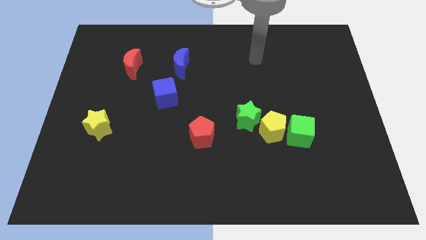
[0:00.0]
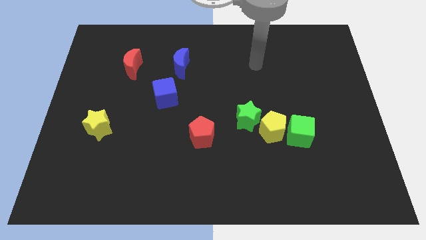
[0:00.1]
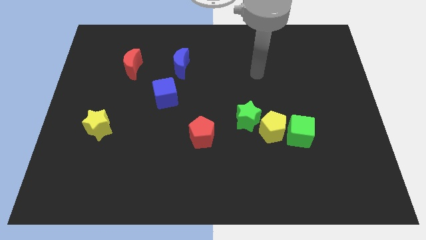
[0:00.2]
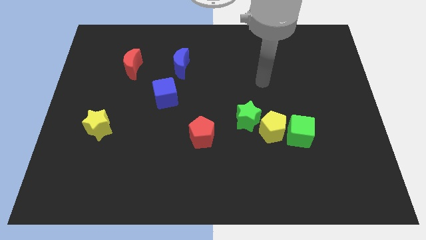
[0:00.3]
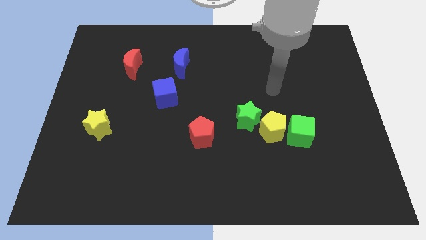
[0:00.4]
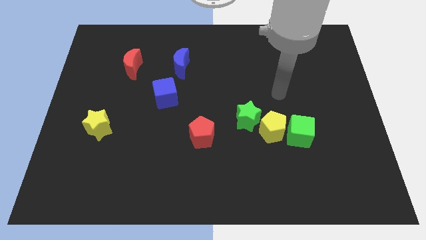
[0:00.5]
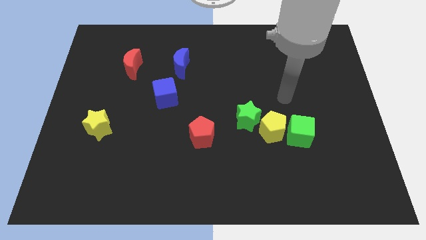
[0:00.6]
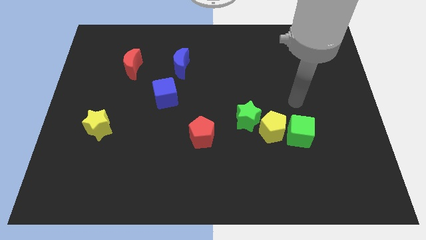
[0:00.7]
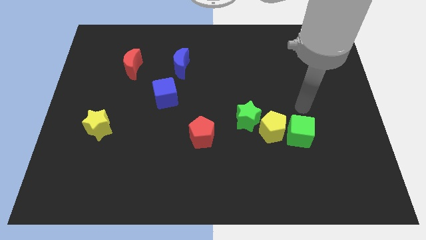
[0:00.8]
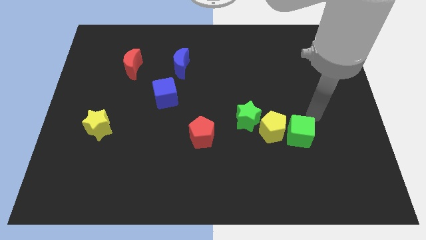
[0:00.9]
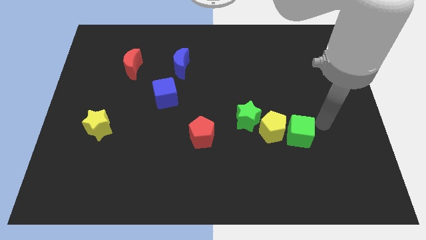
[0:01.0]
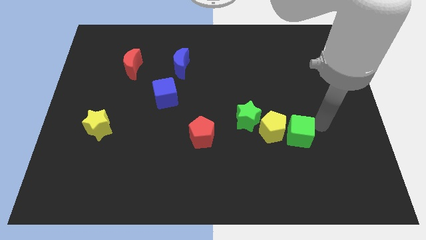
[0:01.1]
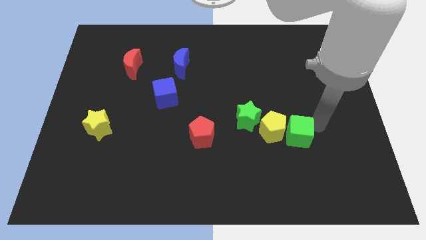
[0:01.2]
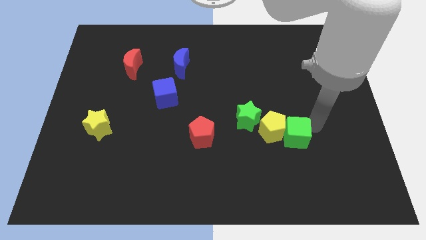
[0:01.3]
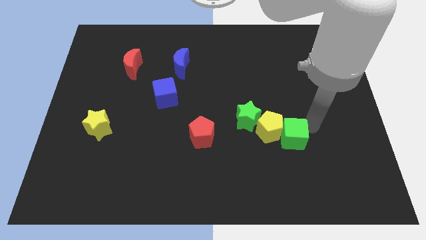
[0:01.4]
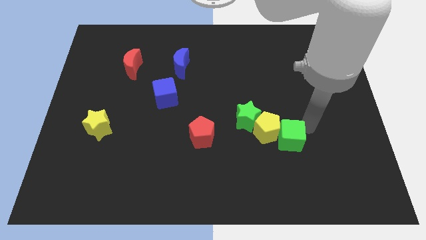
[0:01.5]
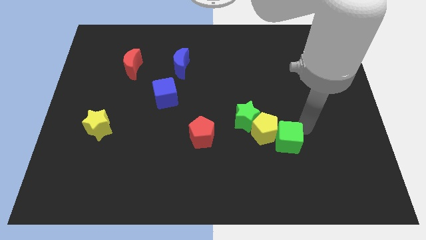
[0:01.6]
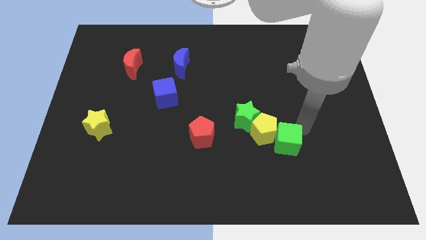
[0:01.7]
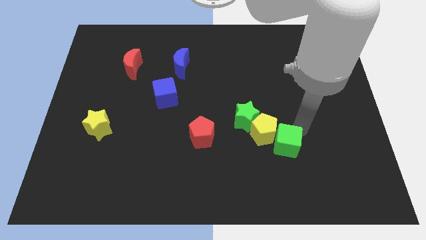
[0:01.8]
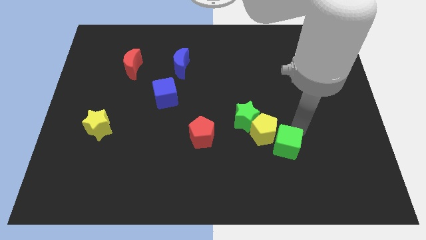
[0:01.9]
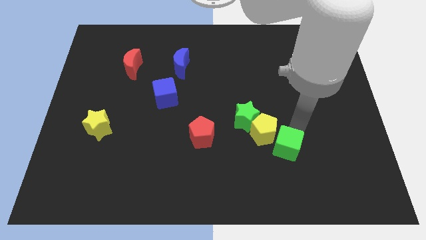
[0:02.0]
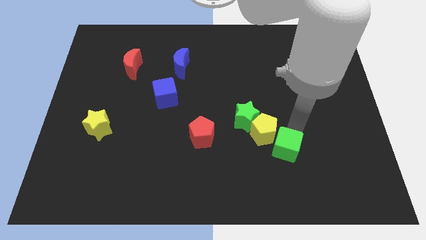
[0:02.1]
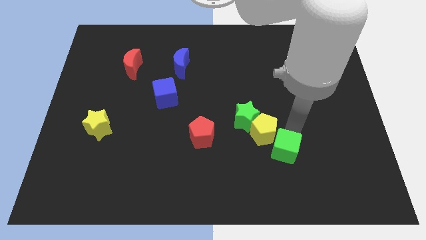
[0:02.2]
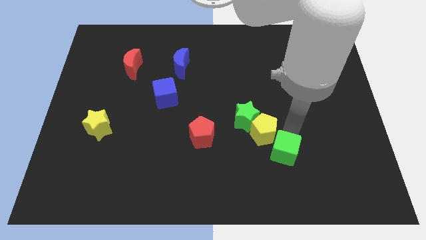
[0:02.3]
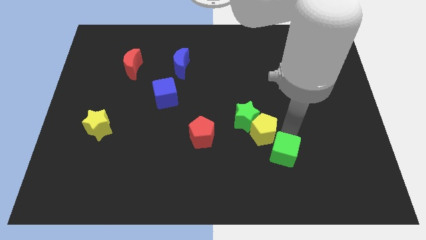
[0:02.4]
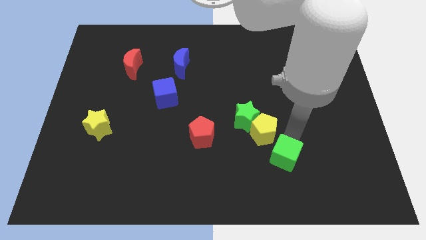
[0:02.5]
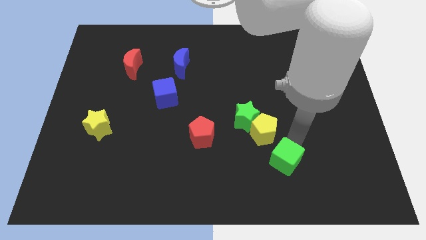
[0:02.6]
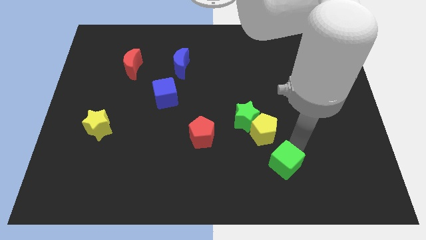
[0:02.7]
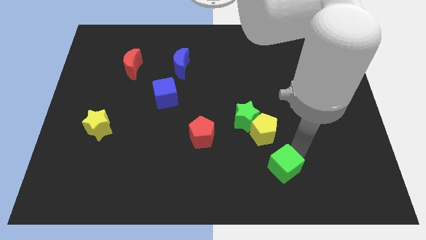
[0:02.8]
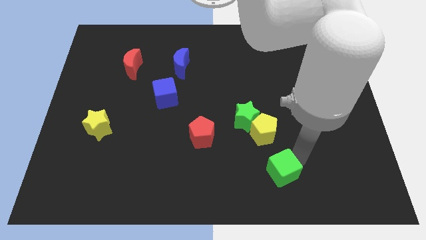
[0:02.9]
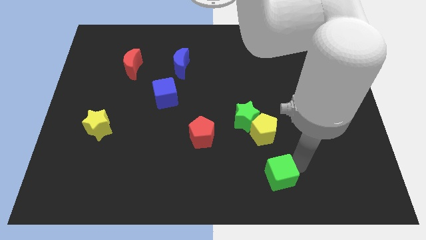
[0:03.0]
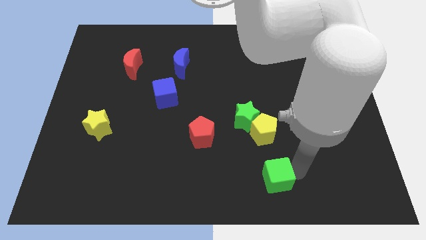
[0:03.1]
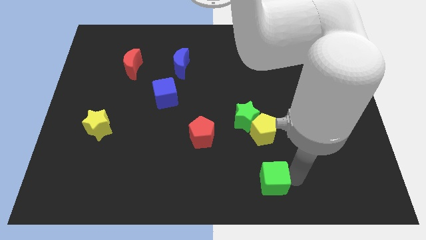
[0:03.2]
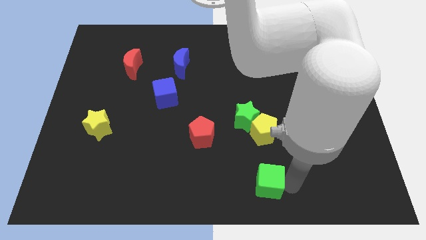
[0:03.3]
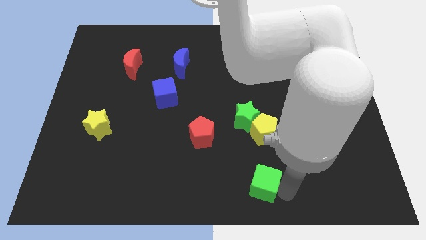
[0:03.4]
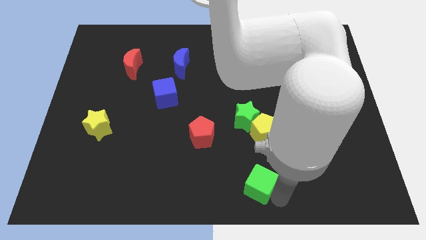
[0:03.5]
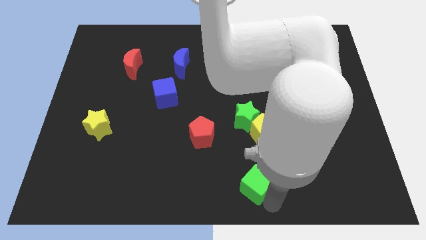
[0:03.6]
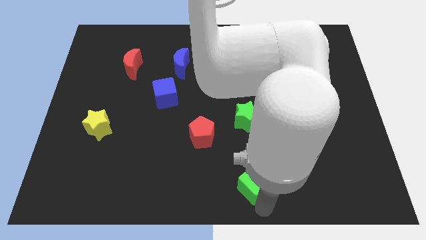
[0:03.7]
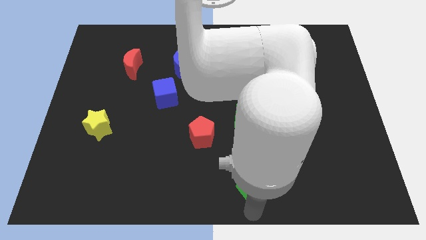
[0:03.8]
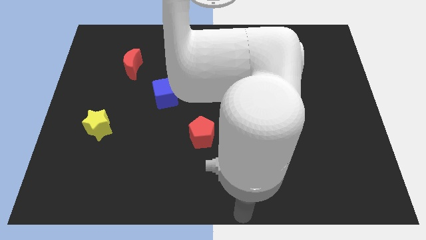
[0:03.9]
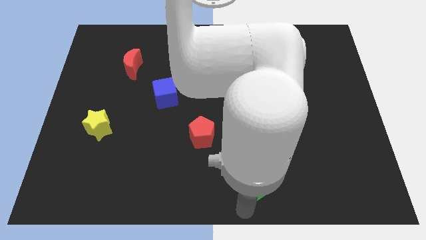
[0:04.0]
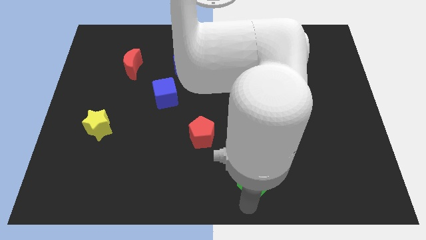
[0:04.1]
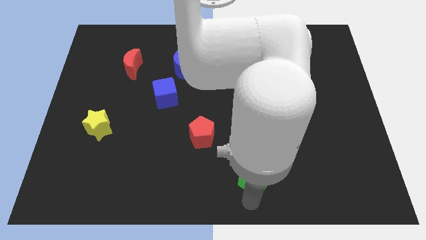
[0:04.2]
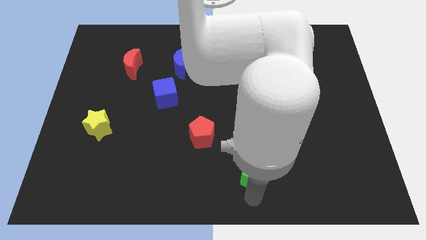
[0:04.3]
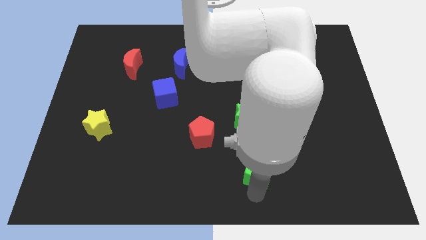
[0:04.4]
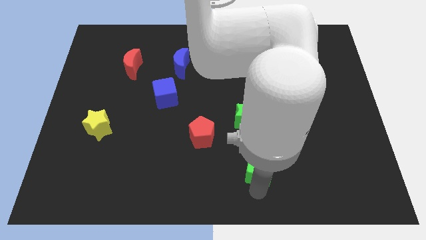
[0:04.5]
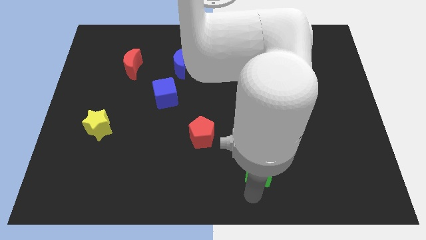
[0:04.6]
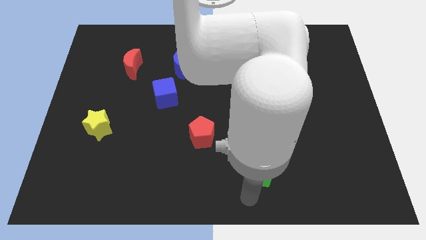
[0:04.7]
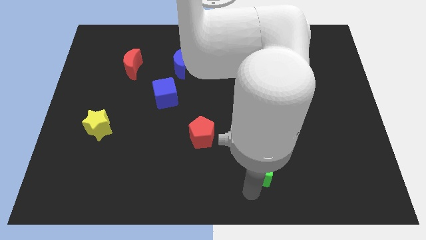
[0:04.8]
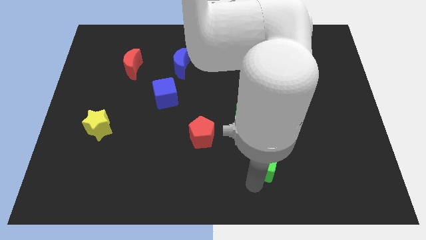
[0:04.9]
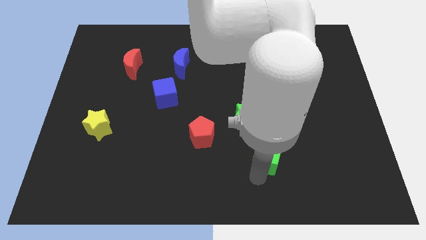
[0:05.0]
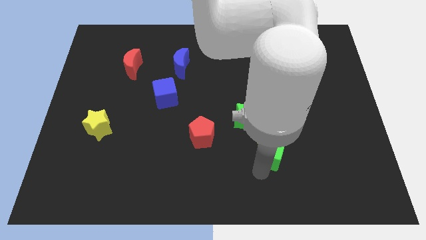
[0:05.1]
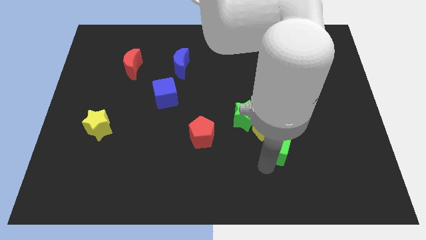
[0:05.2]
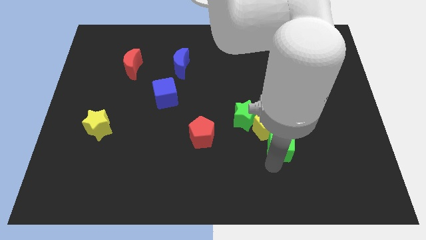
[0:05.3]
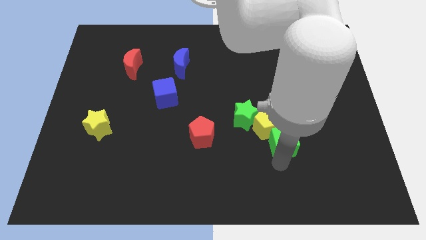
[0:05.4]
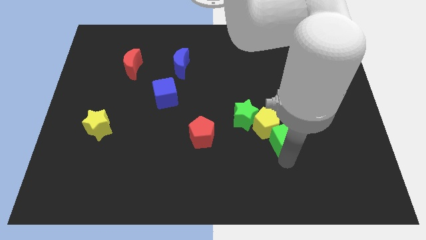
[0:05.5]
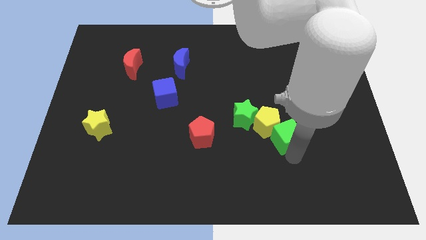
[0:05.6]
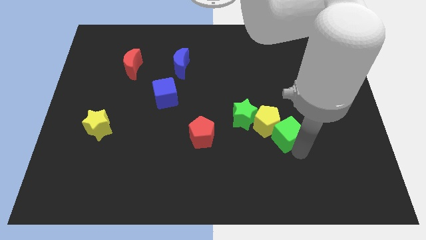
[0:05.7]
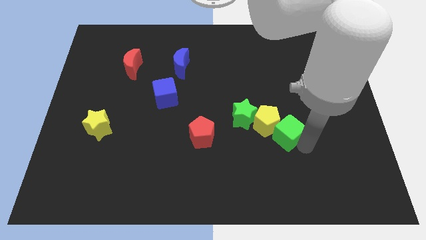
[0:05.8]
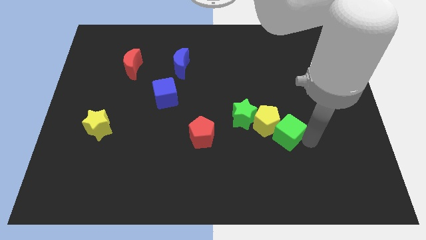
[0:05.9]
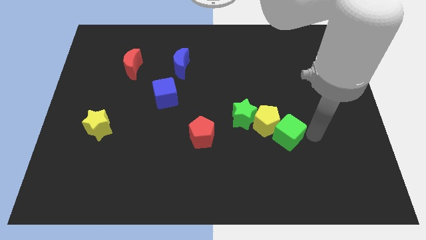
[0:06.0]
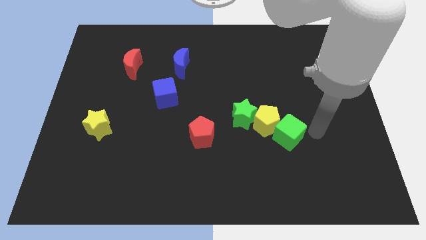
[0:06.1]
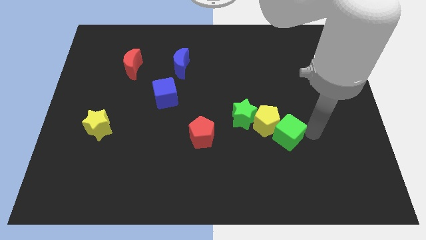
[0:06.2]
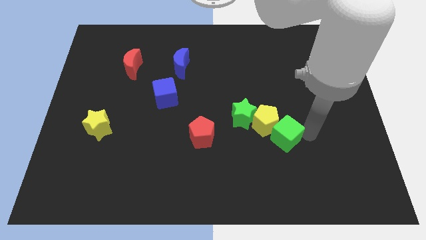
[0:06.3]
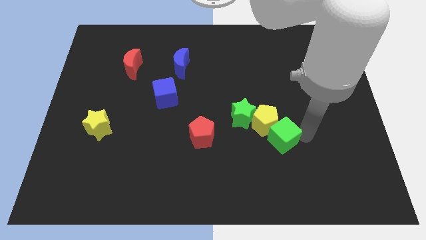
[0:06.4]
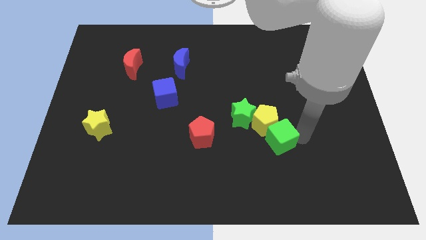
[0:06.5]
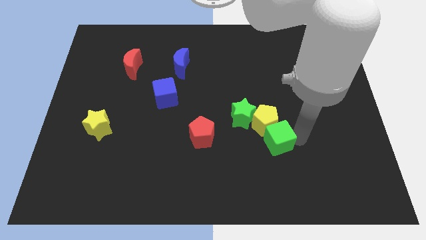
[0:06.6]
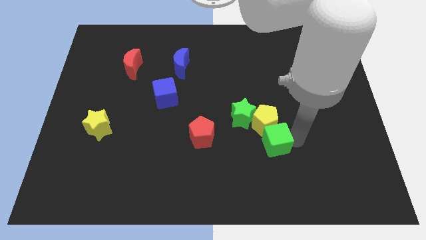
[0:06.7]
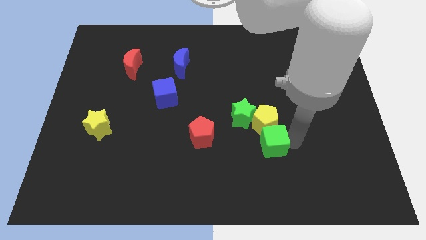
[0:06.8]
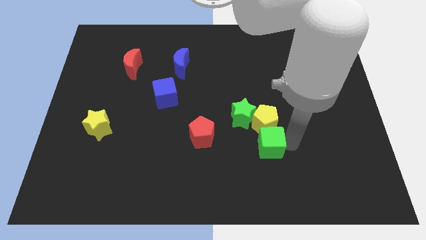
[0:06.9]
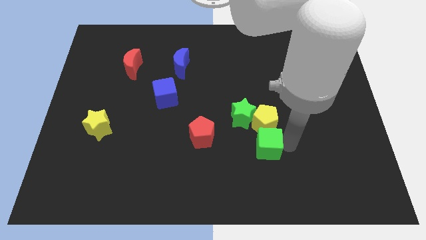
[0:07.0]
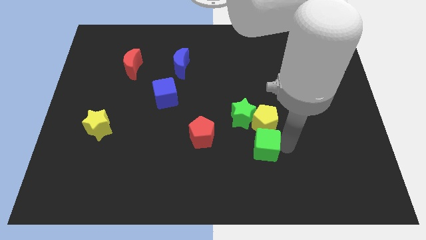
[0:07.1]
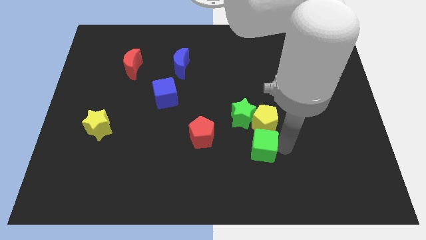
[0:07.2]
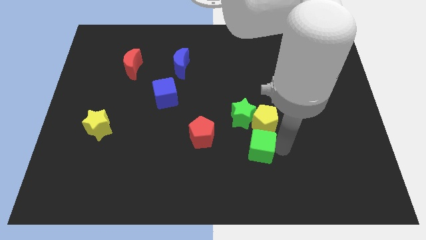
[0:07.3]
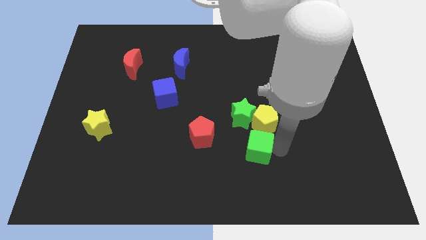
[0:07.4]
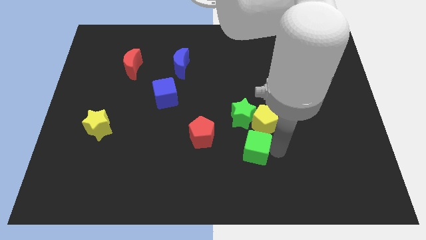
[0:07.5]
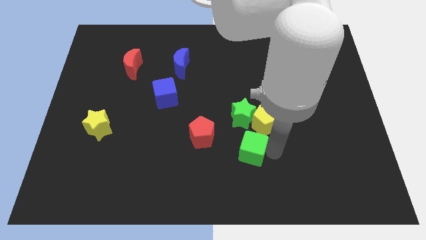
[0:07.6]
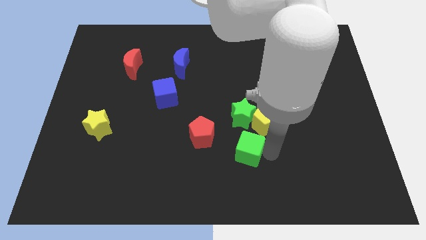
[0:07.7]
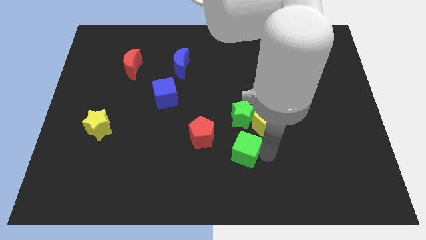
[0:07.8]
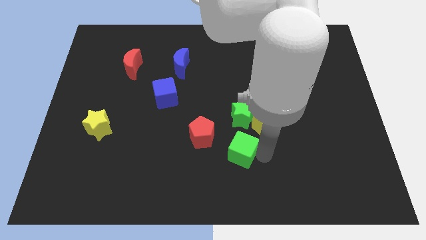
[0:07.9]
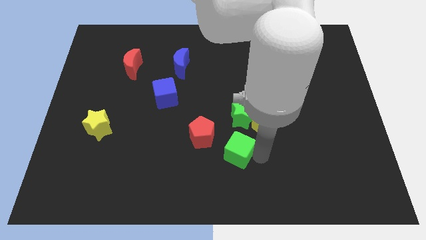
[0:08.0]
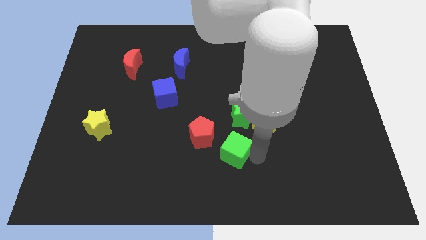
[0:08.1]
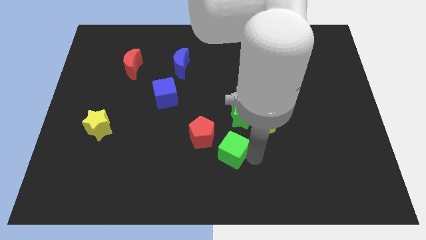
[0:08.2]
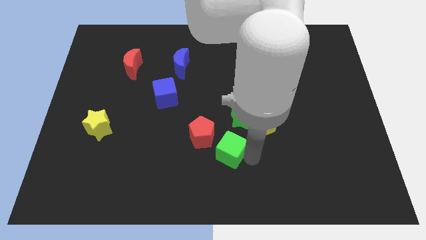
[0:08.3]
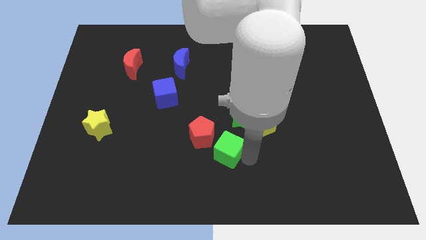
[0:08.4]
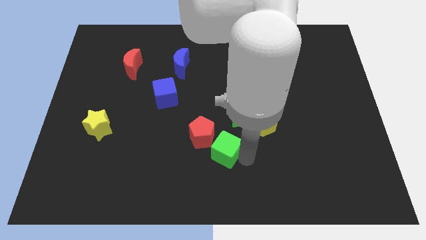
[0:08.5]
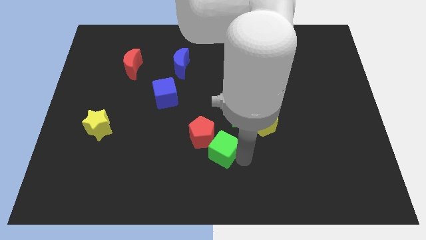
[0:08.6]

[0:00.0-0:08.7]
move the green cube next to the red pentagon
